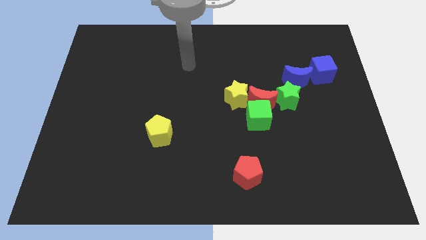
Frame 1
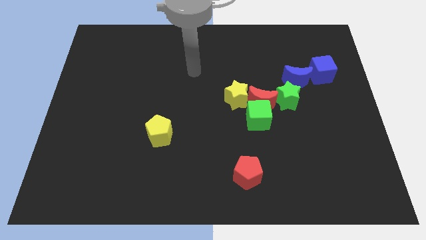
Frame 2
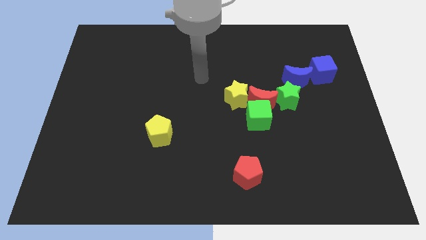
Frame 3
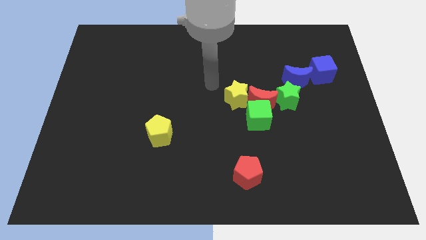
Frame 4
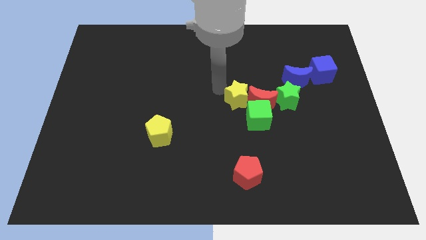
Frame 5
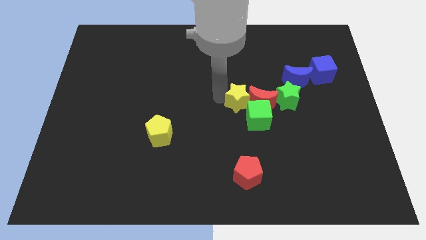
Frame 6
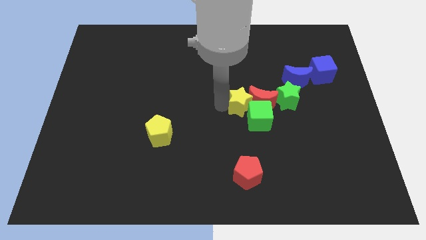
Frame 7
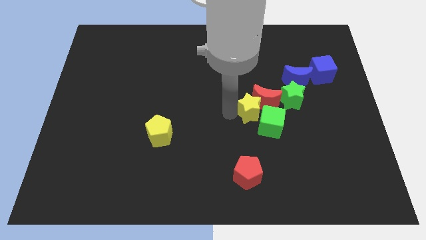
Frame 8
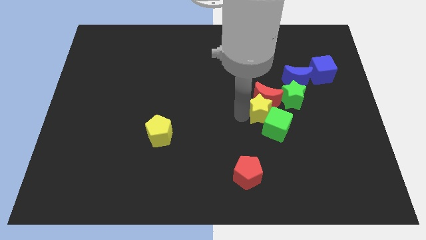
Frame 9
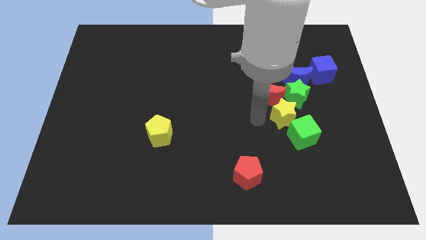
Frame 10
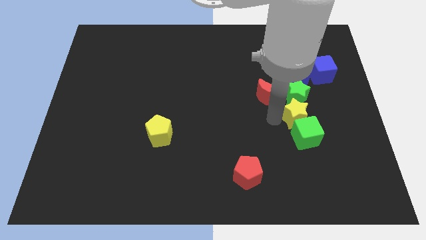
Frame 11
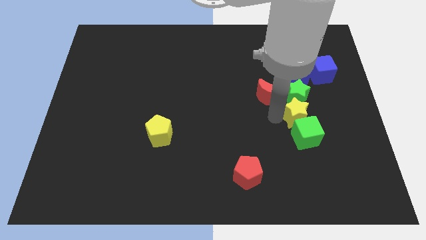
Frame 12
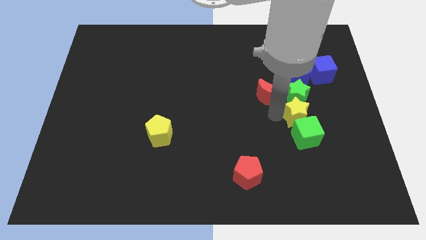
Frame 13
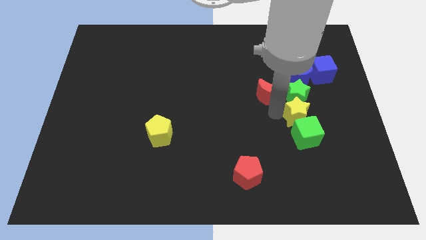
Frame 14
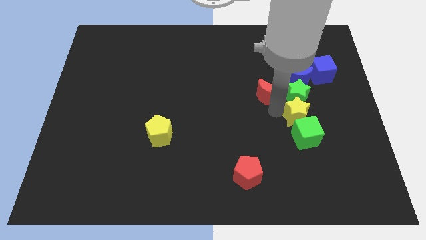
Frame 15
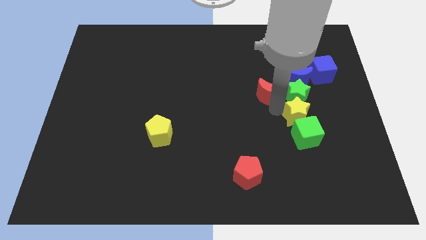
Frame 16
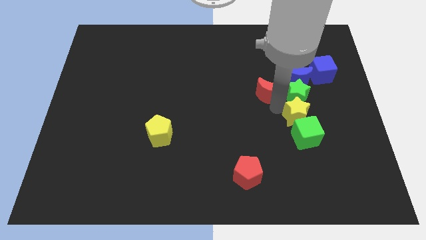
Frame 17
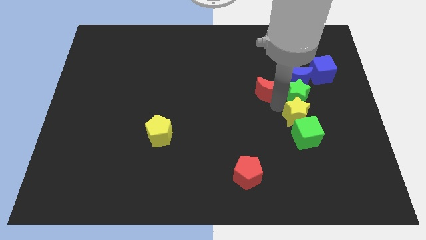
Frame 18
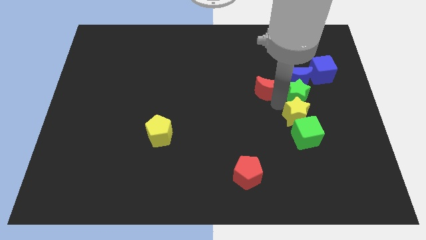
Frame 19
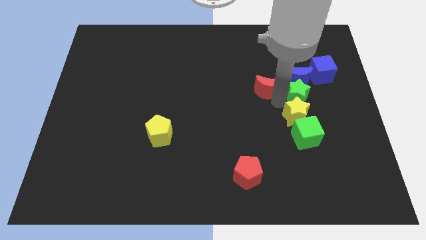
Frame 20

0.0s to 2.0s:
separate the red moon from the green cube, yellow star, and green star

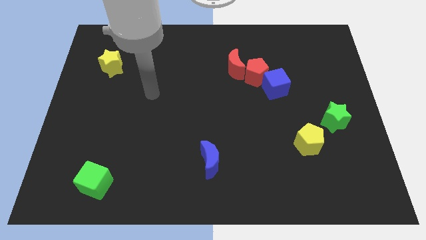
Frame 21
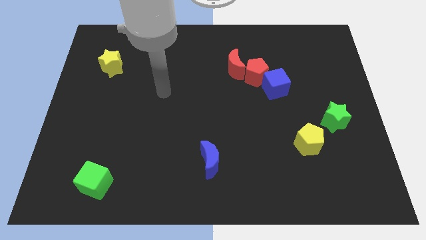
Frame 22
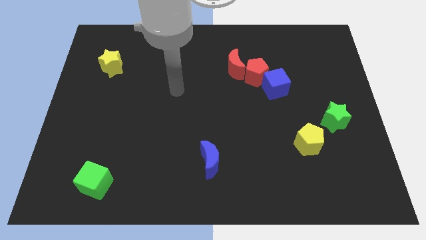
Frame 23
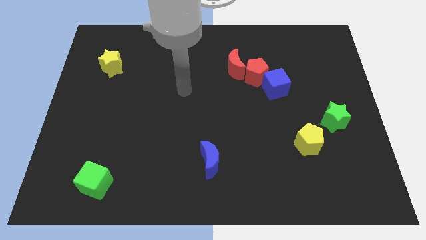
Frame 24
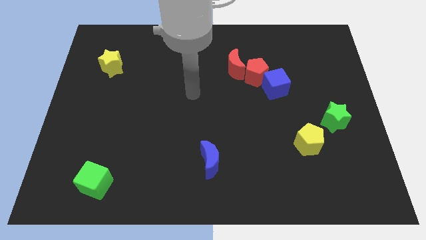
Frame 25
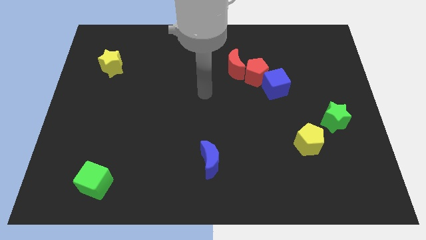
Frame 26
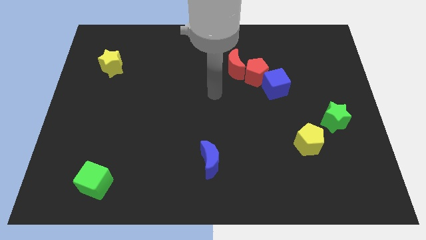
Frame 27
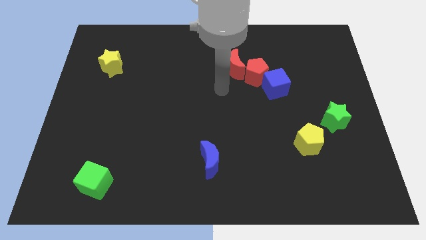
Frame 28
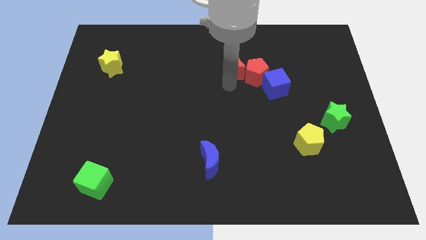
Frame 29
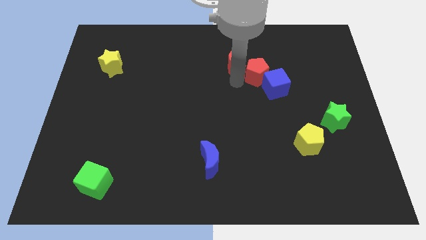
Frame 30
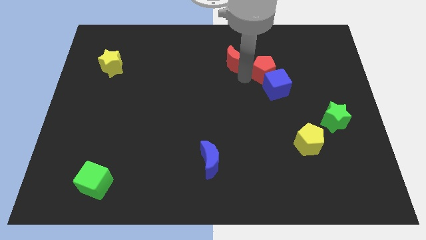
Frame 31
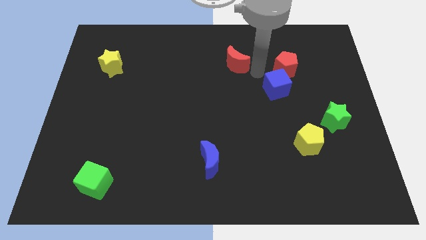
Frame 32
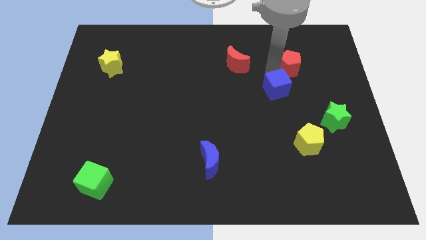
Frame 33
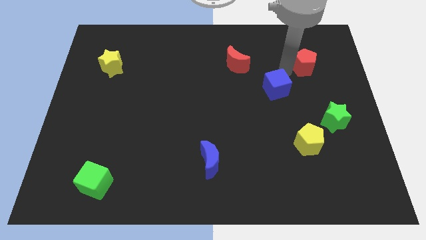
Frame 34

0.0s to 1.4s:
pull the blue cube apart from the red pentagon

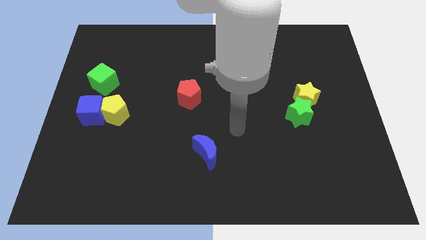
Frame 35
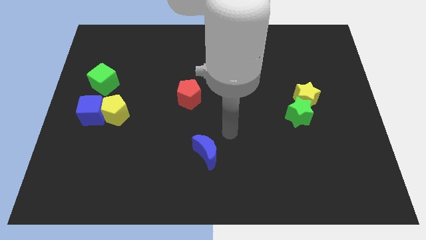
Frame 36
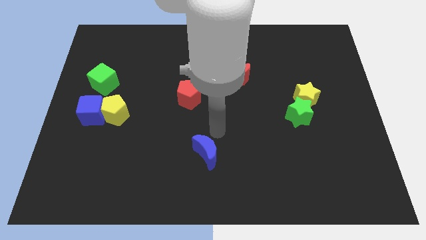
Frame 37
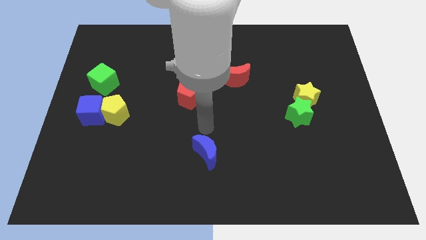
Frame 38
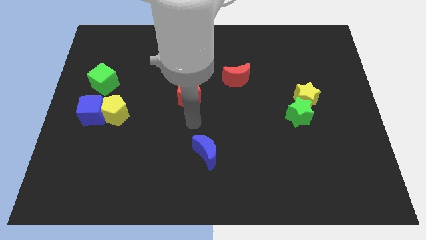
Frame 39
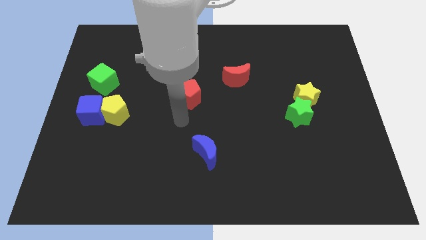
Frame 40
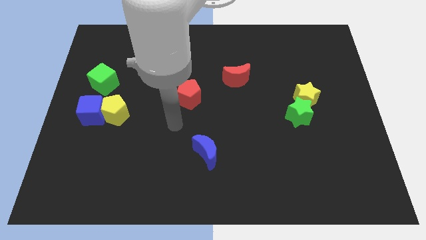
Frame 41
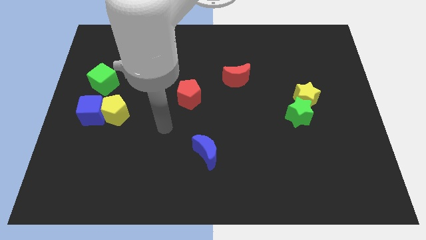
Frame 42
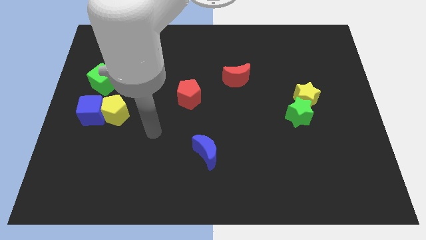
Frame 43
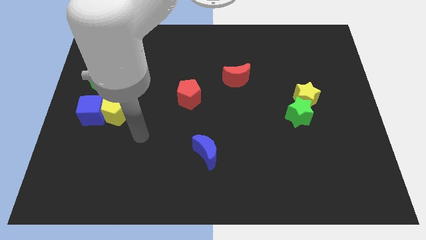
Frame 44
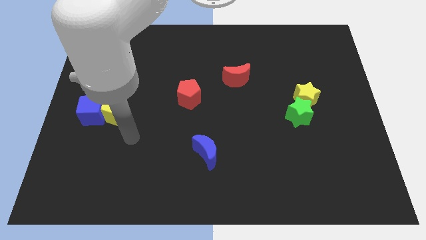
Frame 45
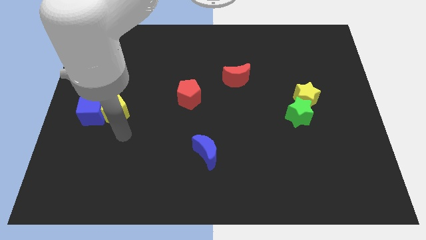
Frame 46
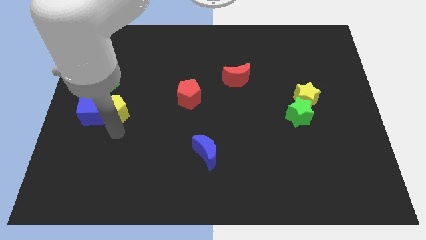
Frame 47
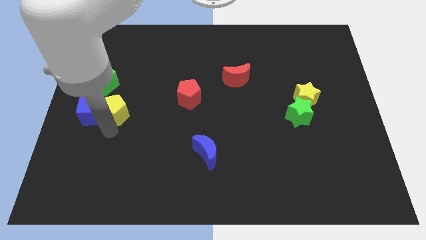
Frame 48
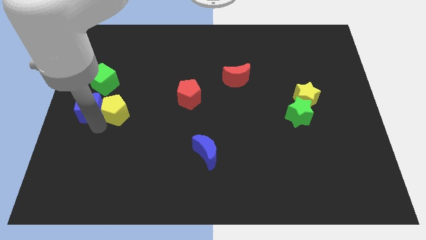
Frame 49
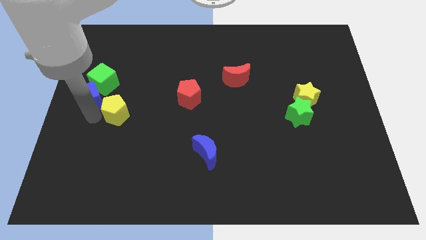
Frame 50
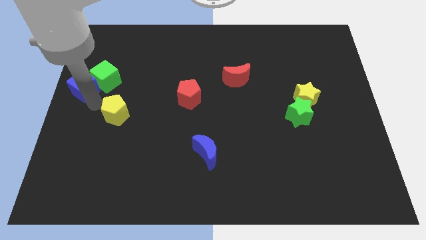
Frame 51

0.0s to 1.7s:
move the yellow pentagon away from the blue cube

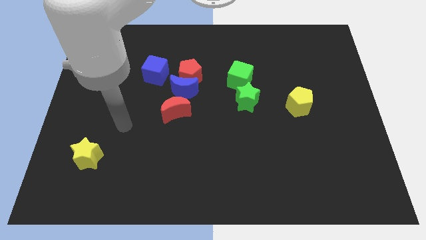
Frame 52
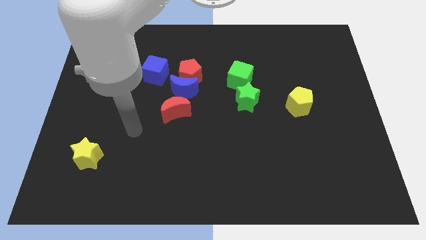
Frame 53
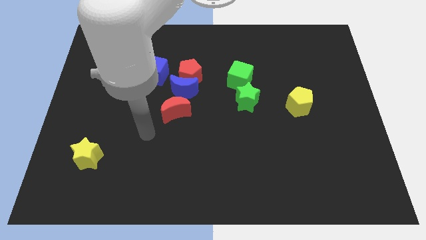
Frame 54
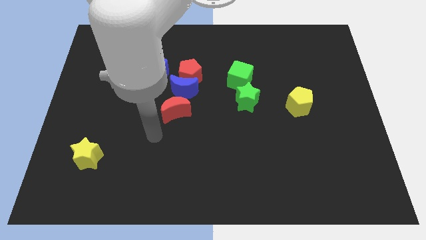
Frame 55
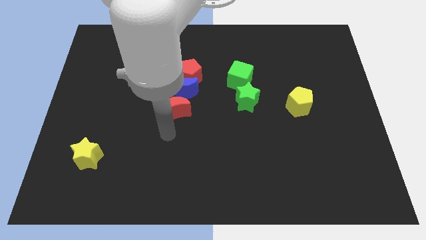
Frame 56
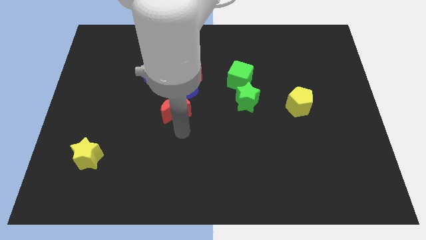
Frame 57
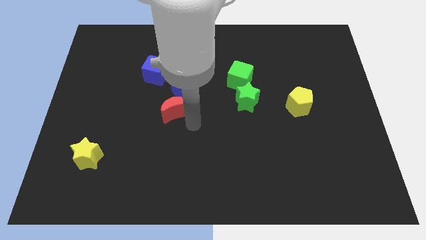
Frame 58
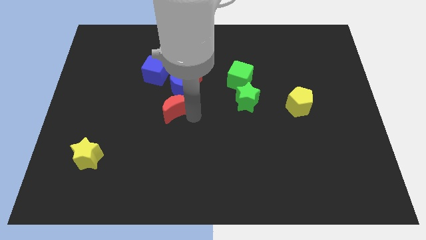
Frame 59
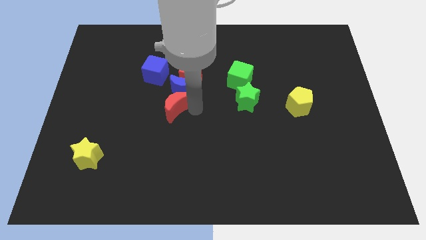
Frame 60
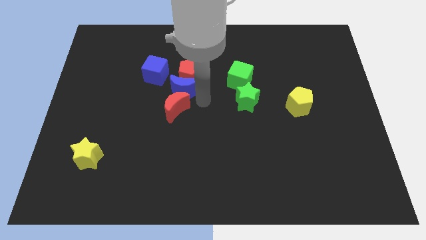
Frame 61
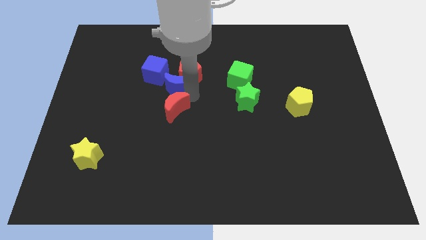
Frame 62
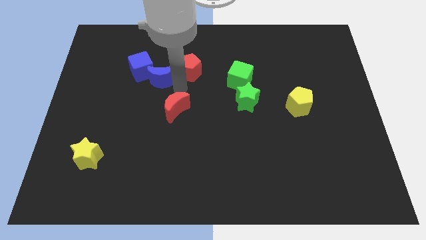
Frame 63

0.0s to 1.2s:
pull the red moon apart from the blue moon

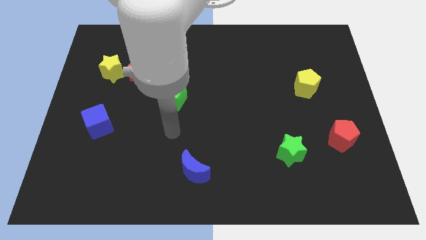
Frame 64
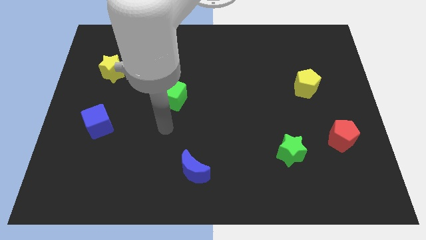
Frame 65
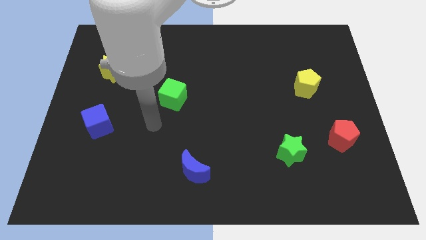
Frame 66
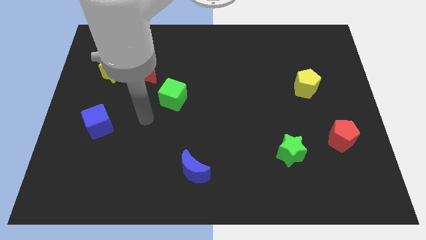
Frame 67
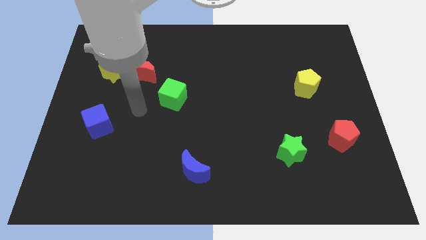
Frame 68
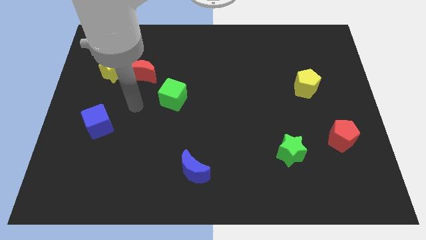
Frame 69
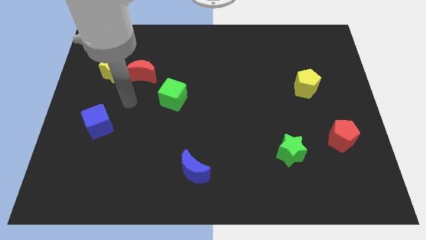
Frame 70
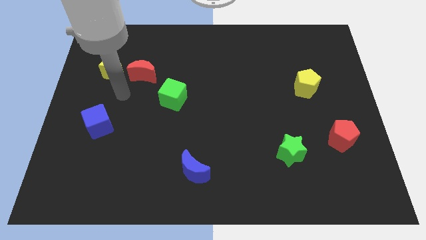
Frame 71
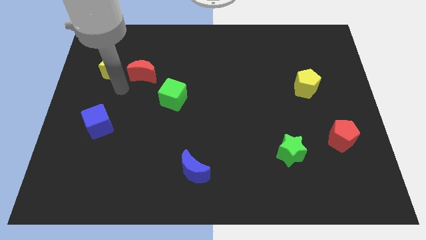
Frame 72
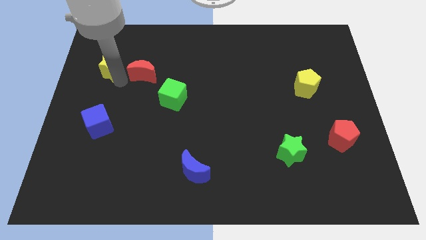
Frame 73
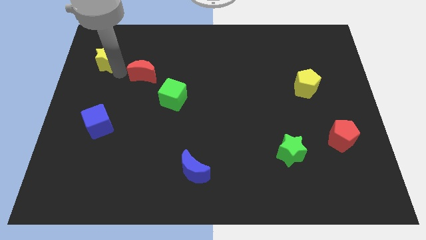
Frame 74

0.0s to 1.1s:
move the red moon away from the yellow star

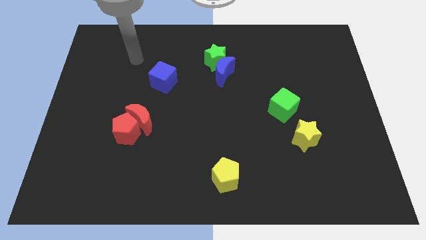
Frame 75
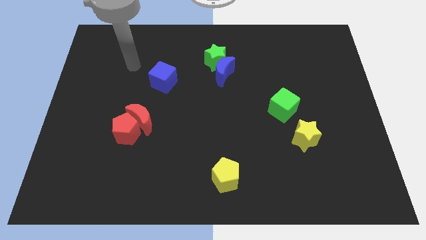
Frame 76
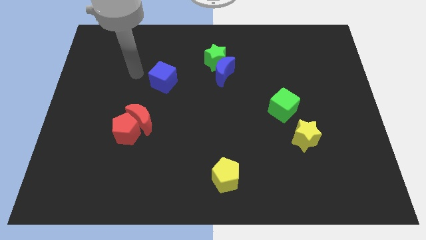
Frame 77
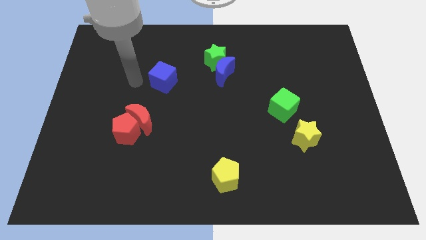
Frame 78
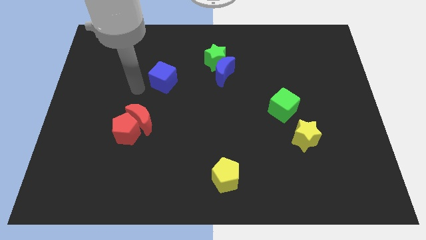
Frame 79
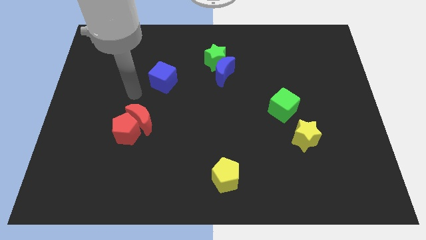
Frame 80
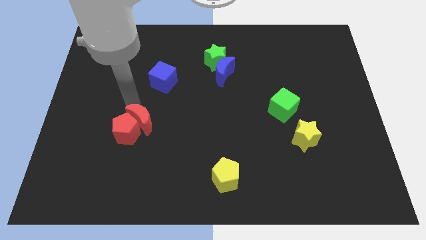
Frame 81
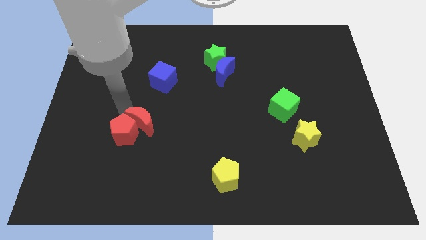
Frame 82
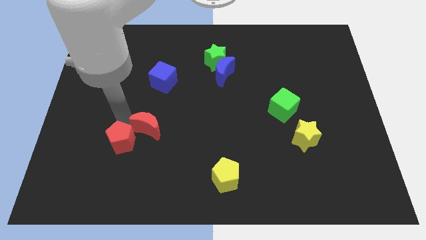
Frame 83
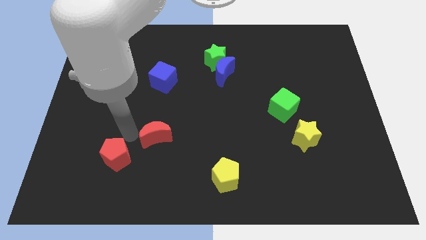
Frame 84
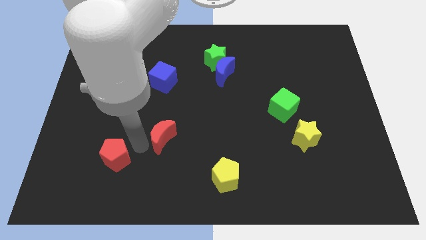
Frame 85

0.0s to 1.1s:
pull the red moon apart from the red pentagon

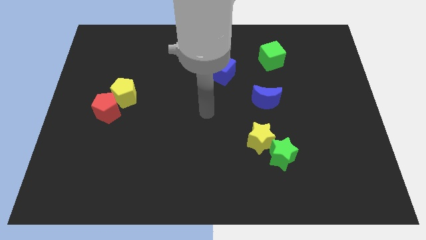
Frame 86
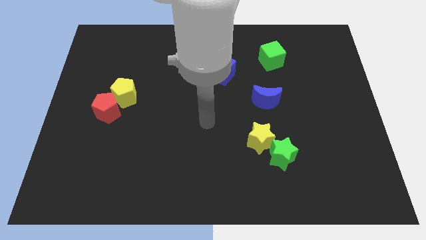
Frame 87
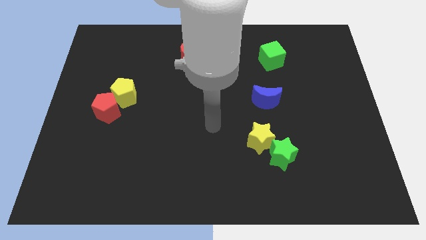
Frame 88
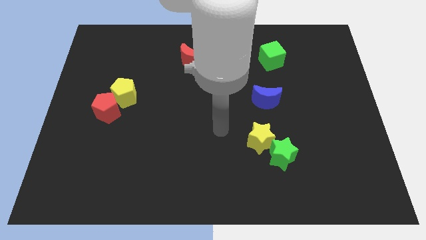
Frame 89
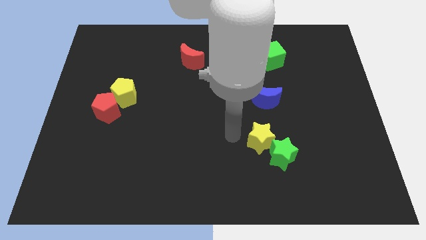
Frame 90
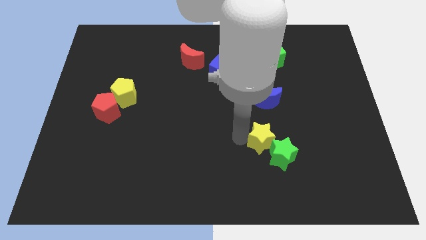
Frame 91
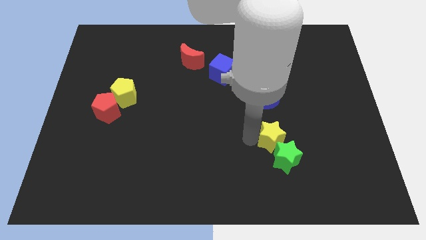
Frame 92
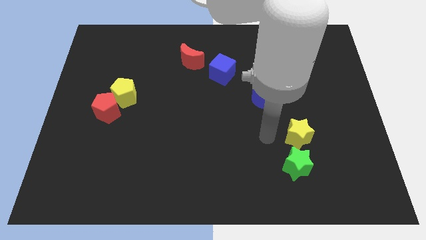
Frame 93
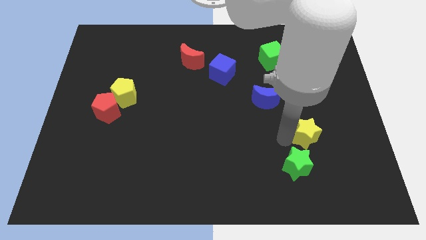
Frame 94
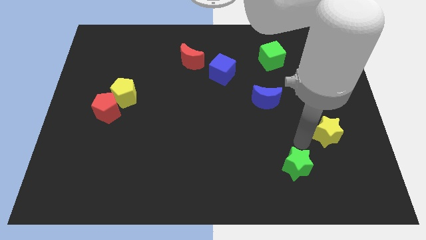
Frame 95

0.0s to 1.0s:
separate the green star from the yellow star

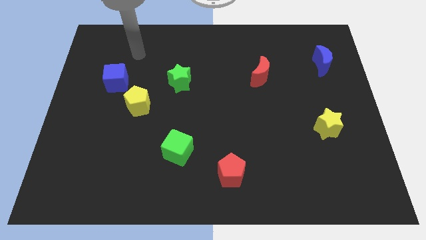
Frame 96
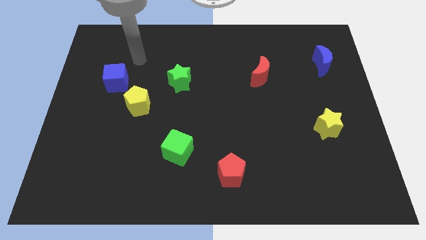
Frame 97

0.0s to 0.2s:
pull the blue cube apart from the yellow pentagon
